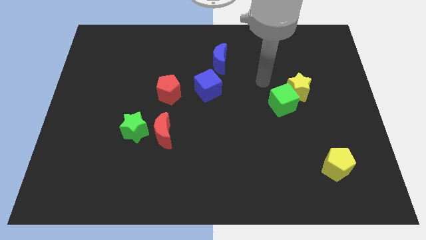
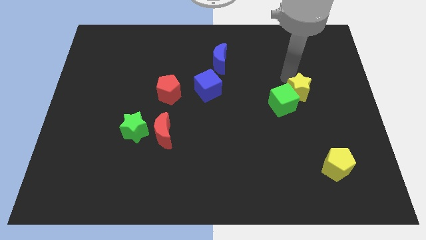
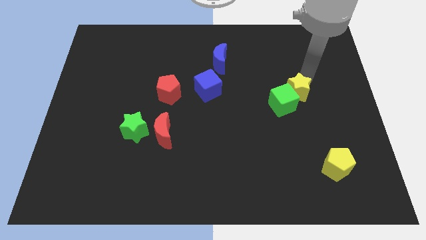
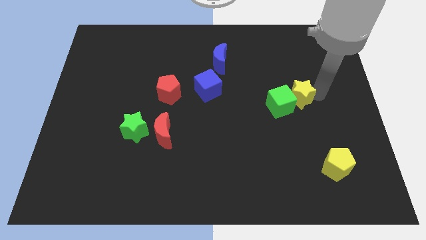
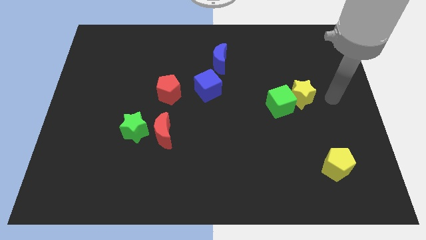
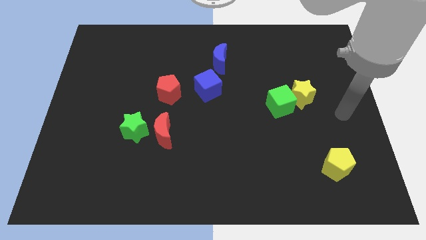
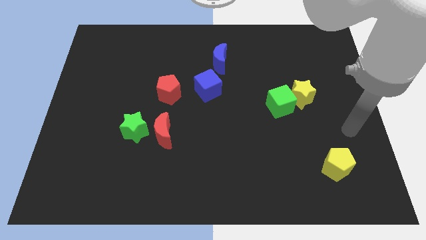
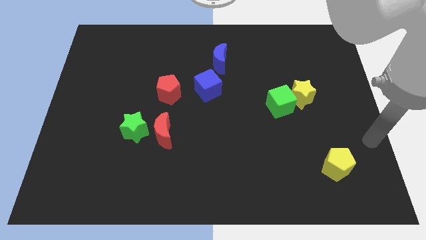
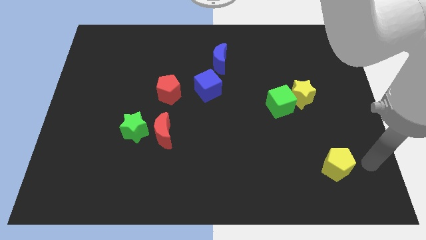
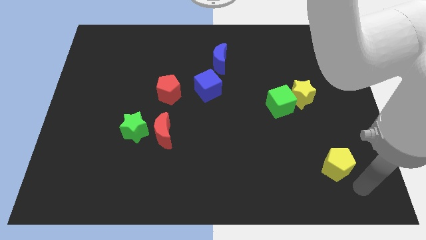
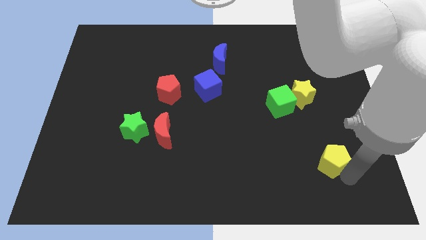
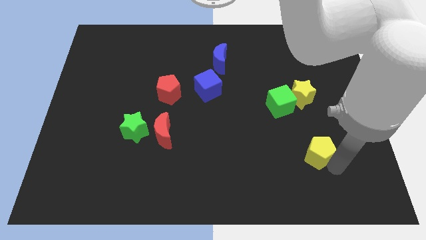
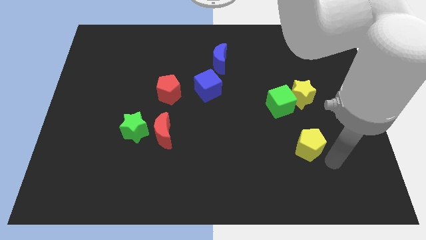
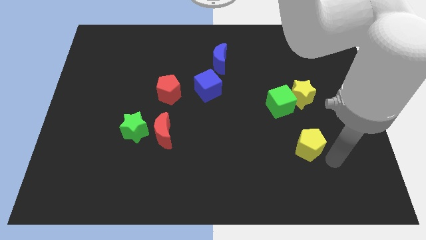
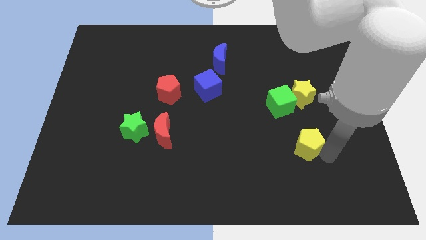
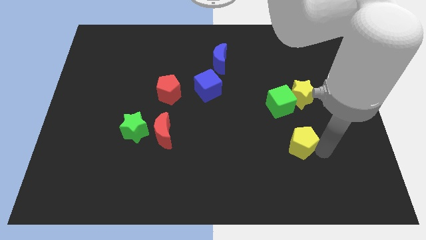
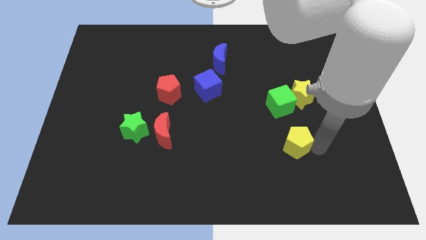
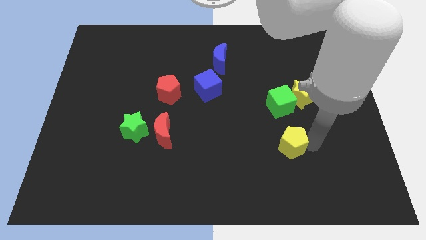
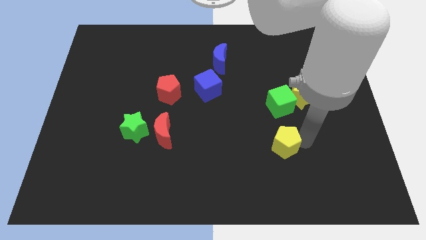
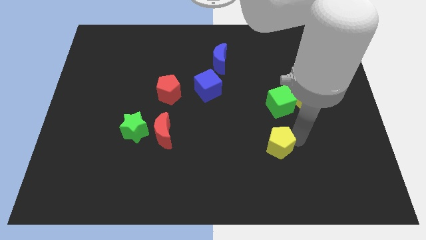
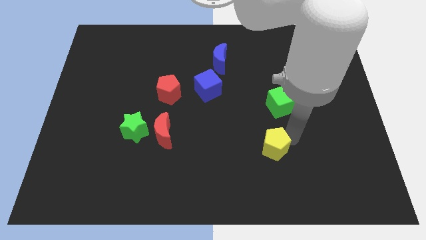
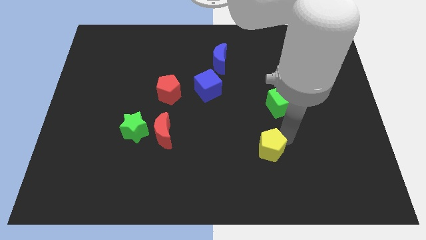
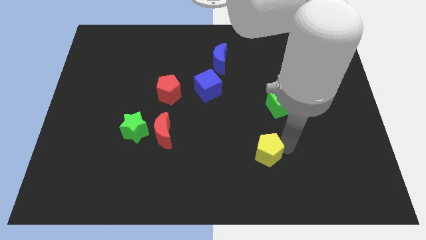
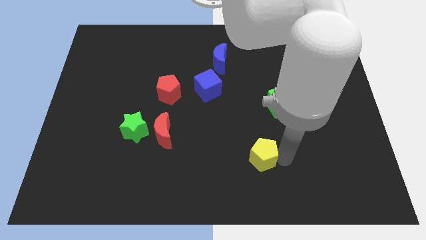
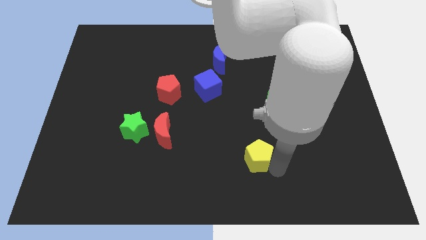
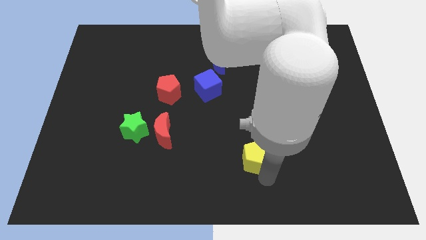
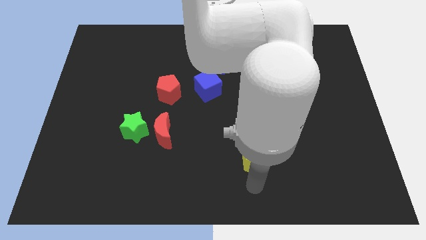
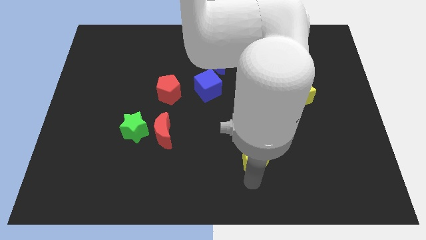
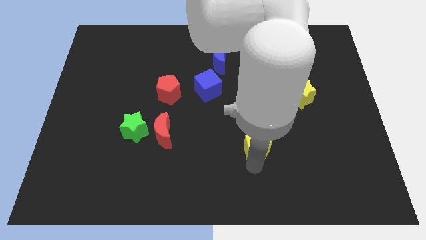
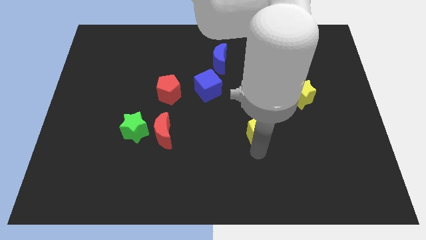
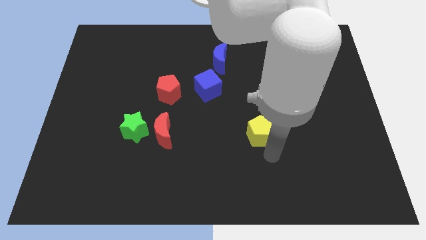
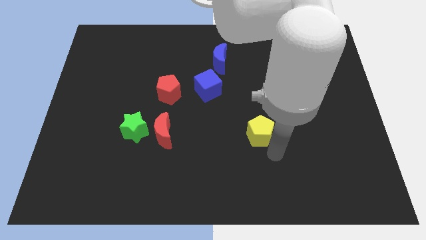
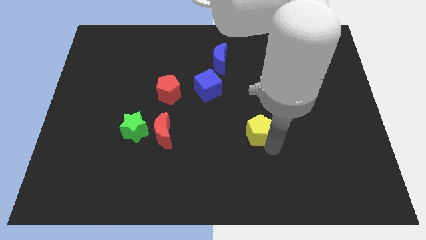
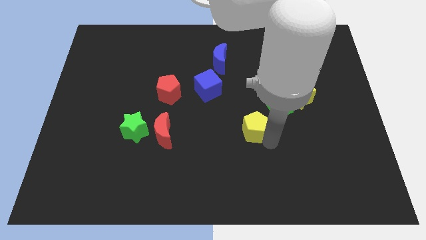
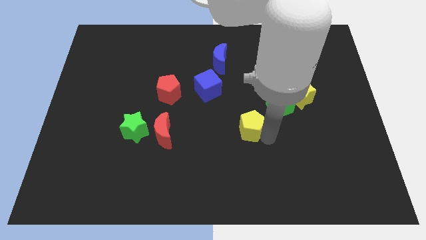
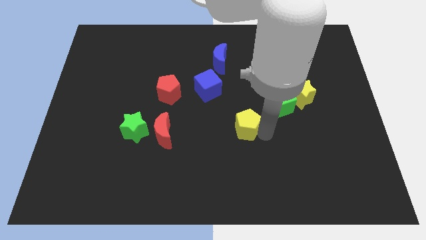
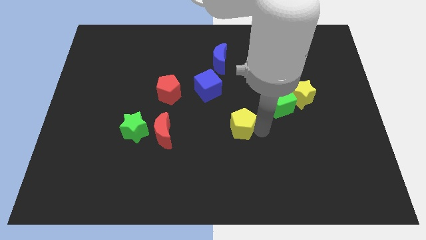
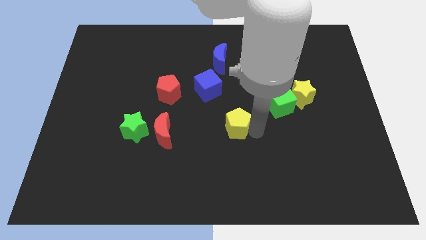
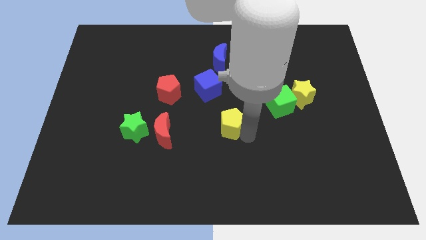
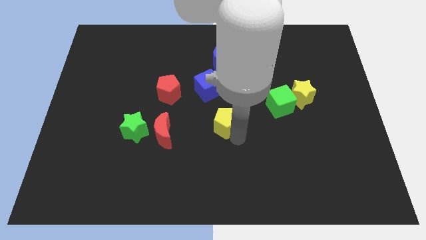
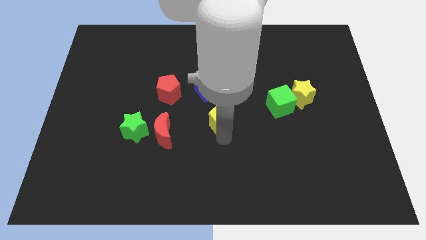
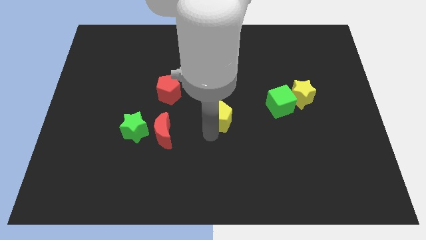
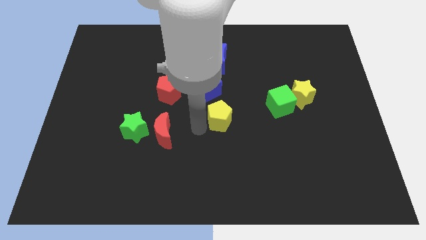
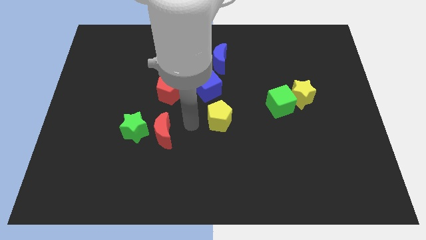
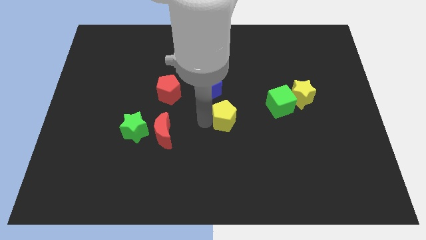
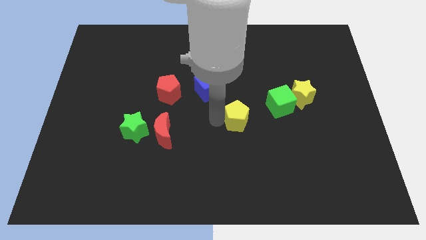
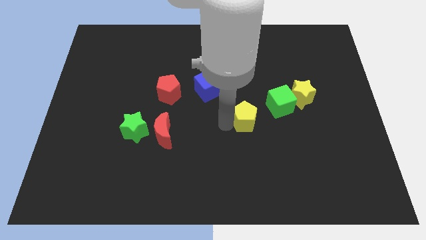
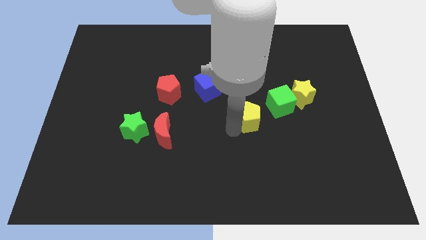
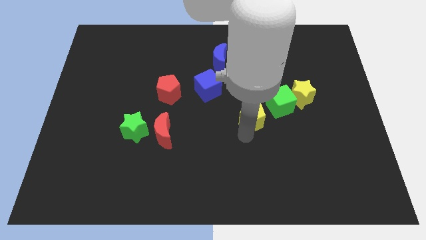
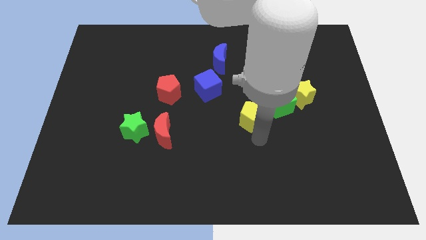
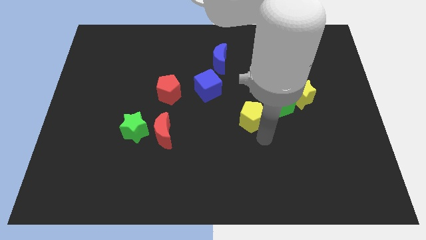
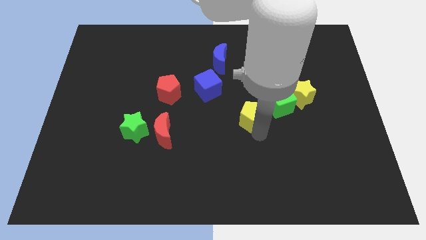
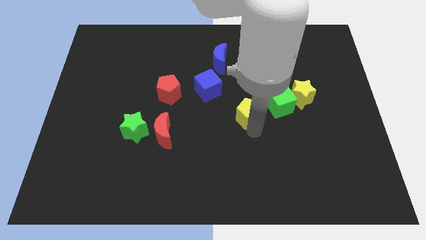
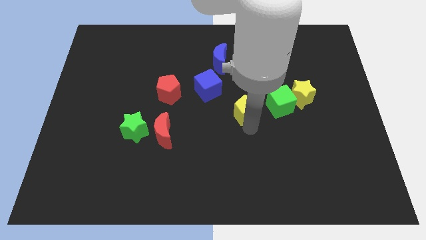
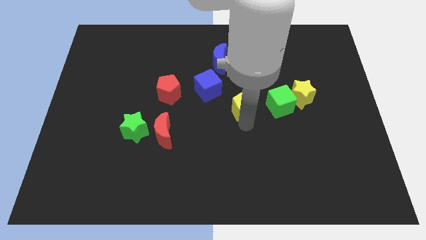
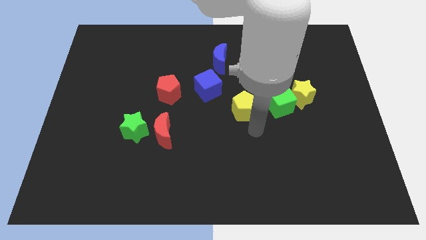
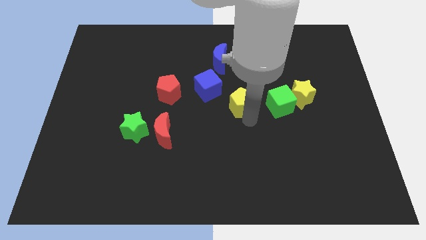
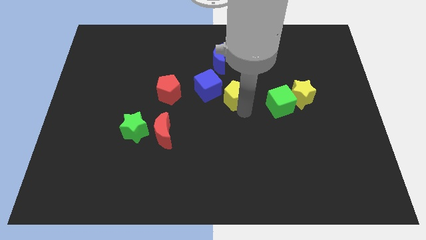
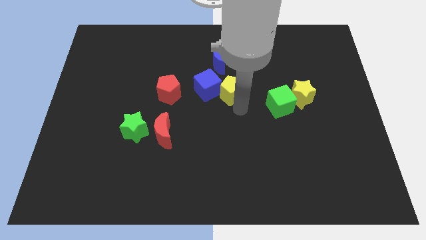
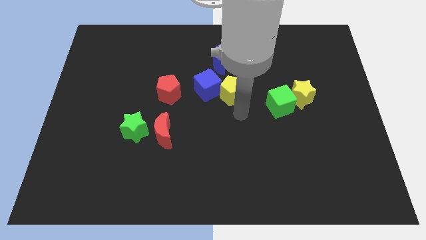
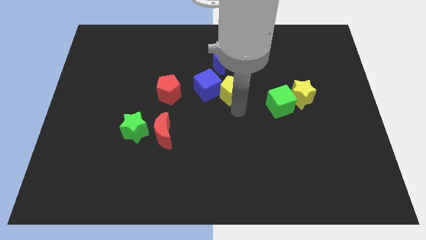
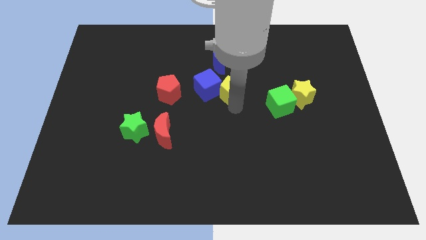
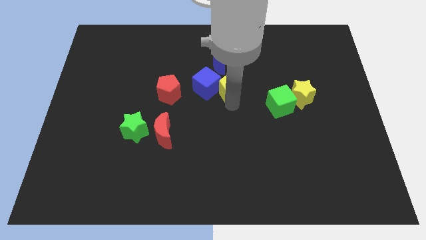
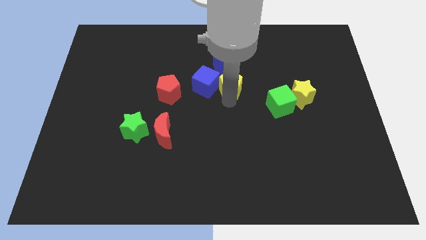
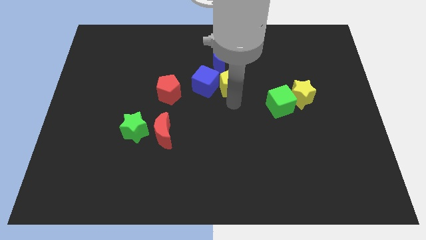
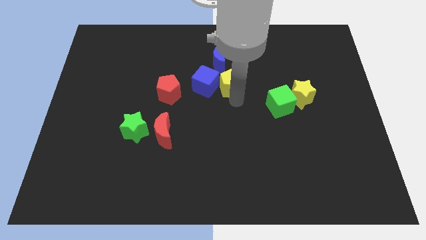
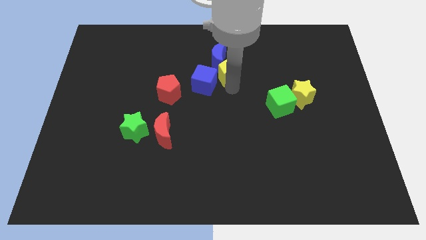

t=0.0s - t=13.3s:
put the yellow pentagon towards the blue moon

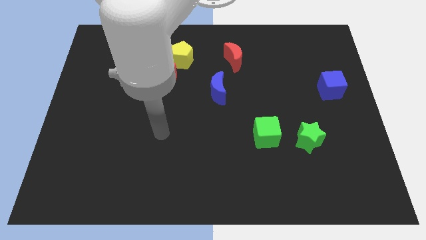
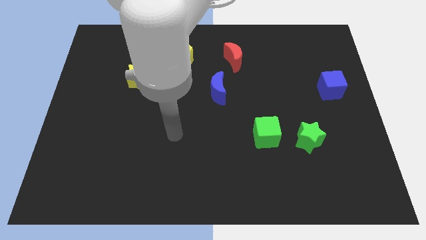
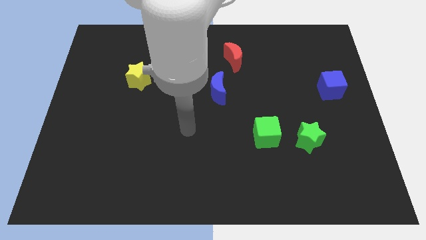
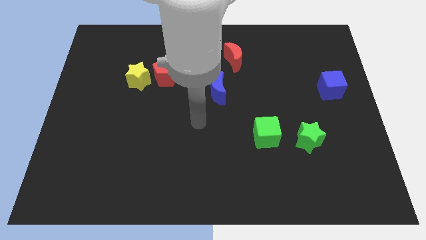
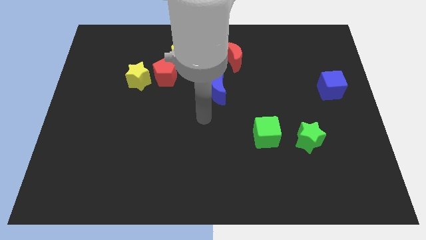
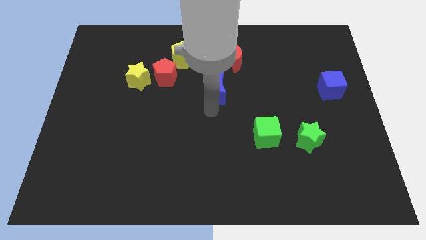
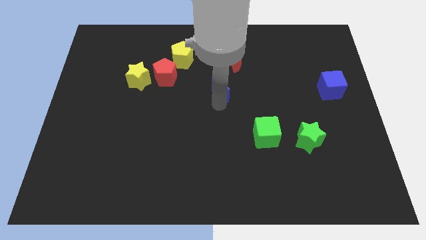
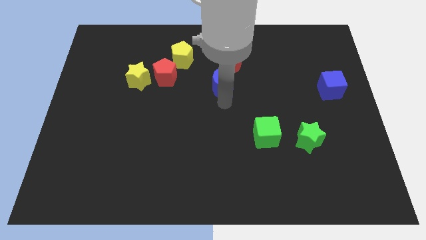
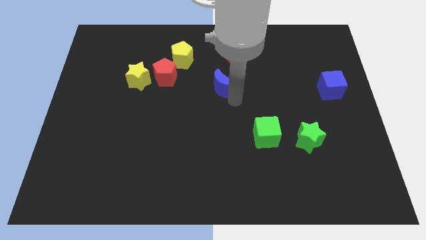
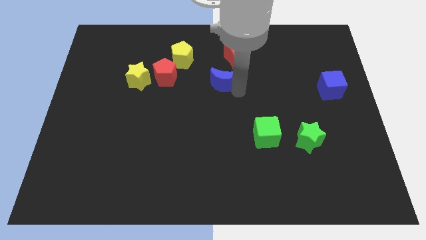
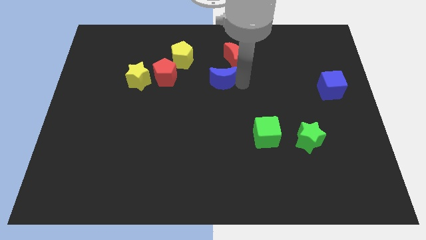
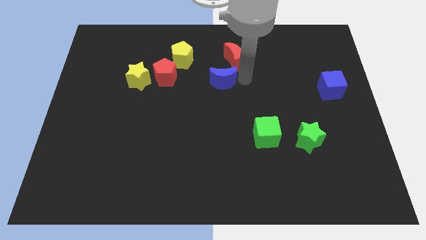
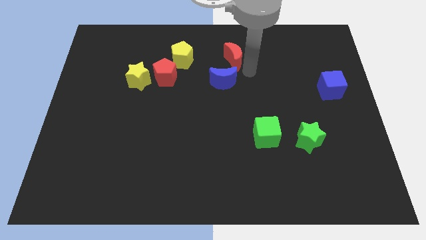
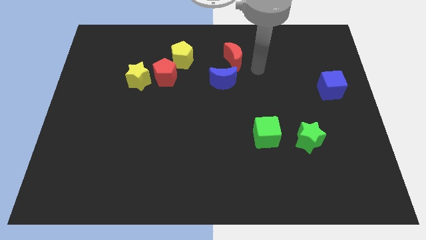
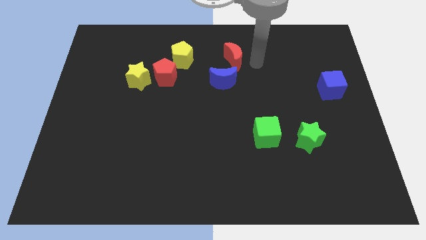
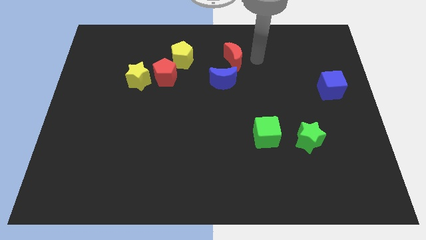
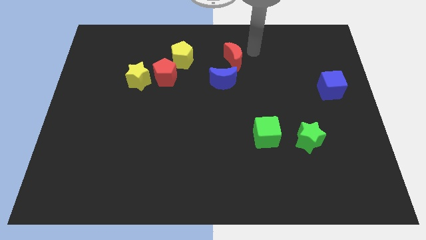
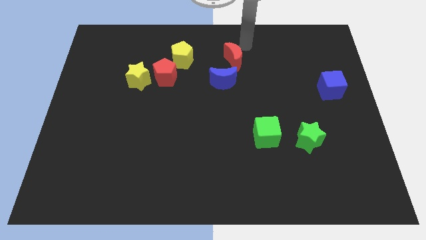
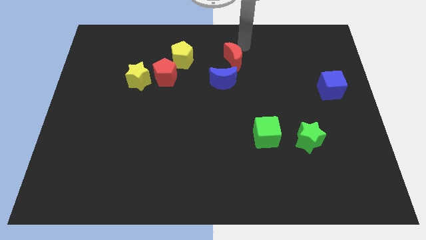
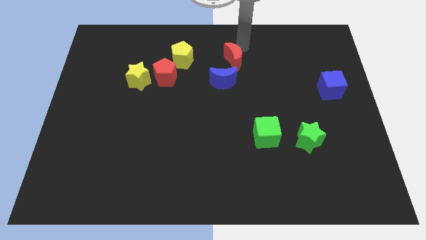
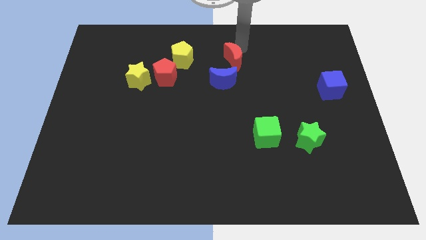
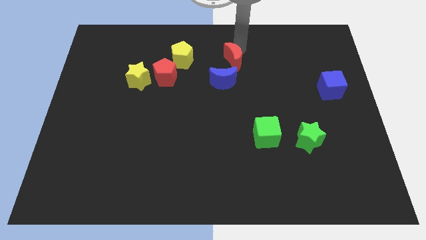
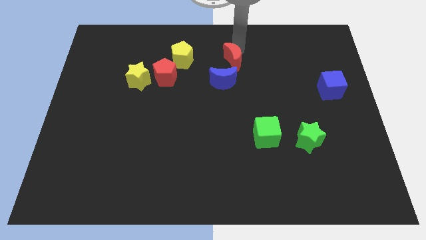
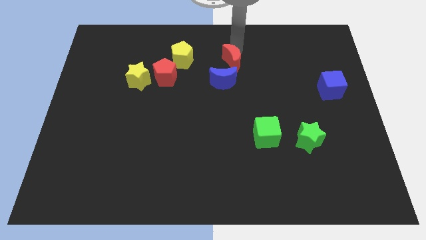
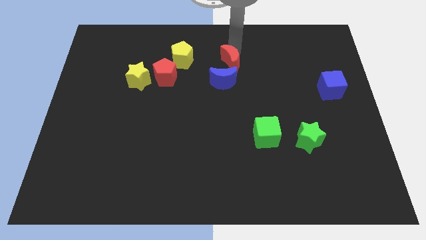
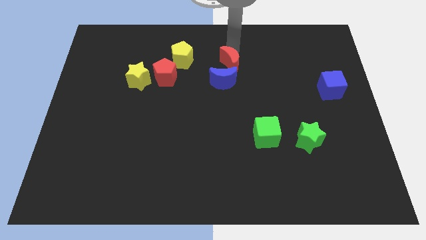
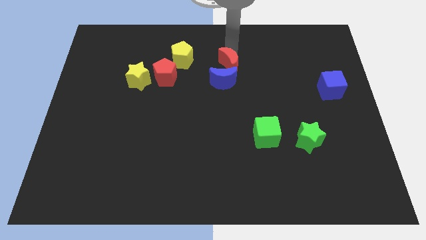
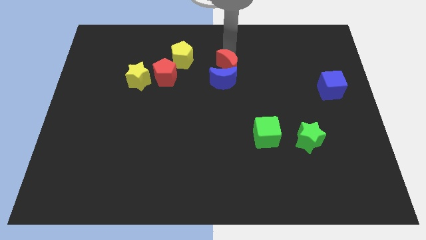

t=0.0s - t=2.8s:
push the red moon to the blue moon
